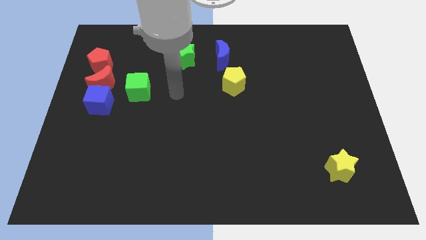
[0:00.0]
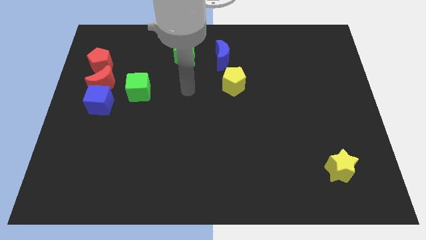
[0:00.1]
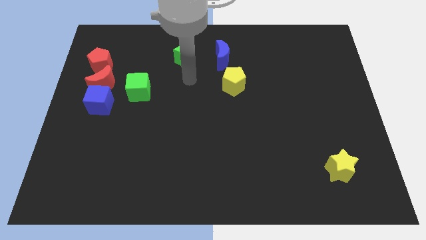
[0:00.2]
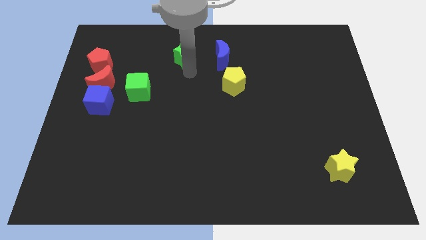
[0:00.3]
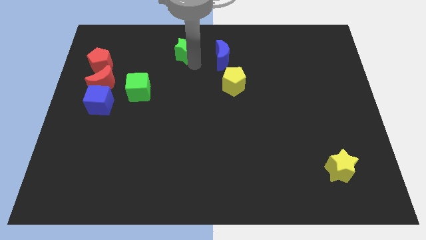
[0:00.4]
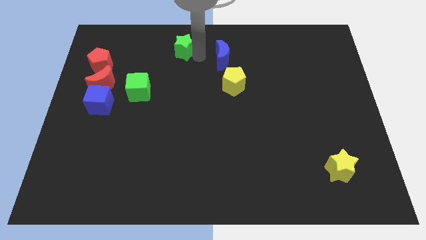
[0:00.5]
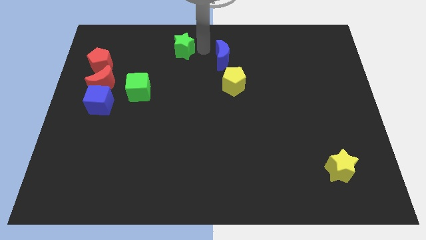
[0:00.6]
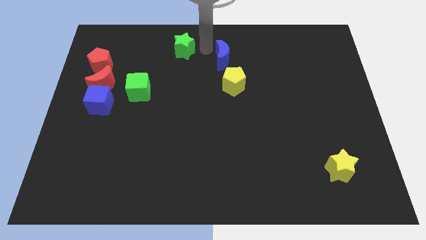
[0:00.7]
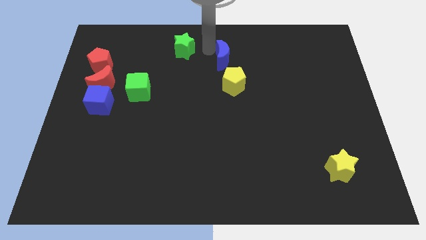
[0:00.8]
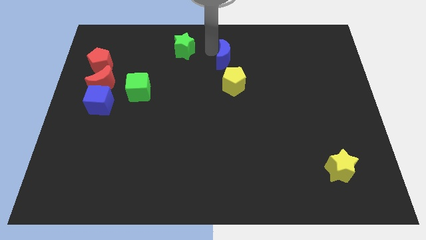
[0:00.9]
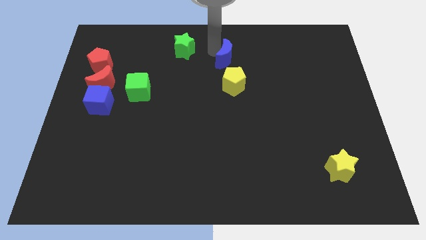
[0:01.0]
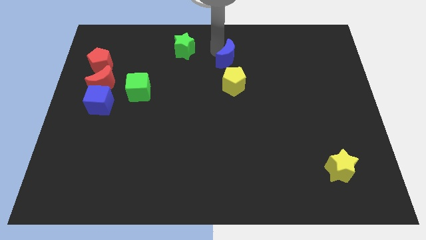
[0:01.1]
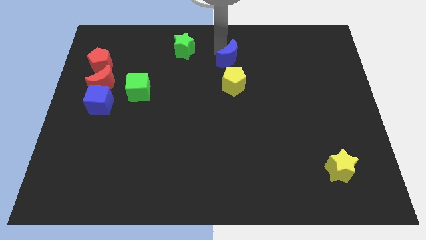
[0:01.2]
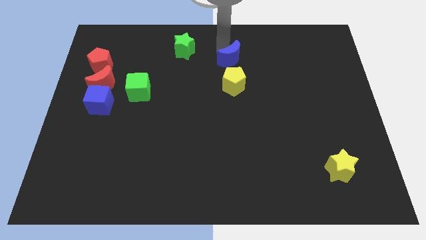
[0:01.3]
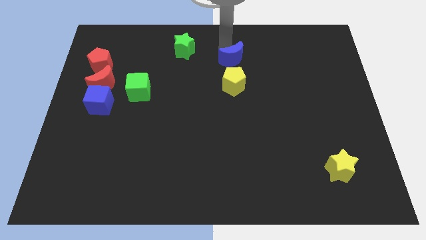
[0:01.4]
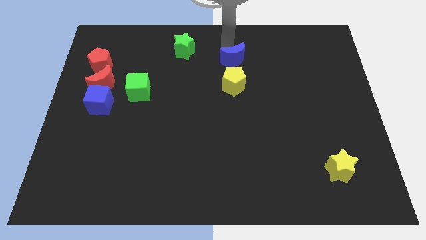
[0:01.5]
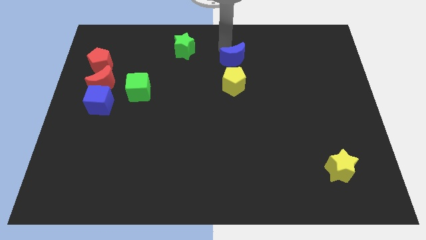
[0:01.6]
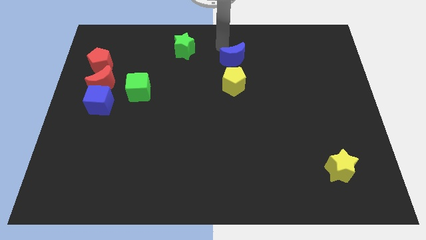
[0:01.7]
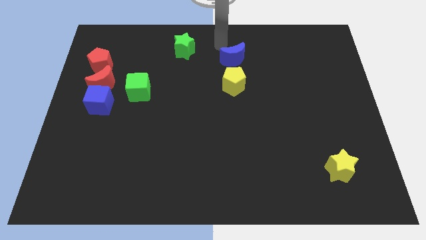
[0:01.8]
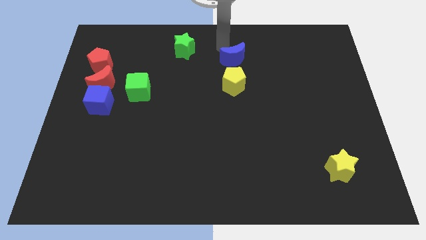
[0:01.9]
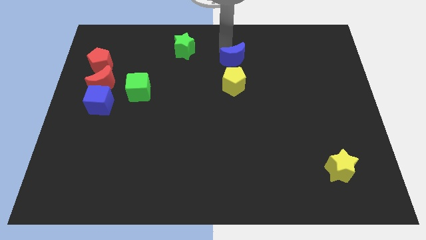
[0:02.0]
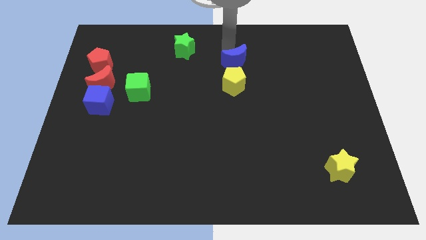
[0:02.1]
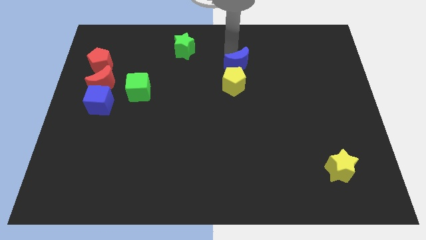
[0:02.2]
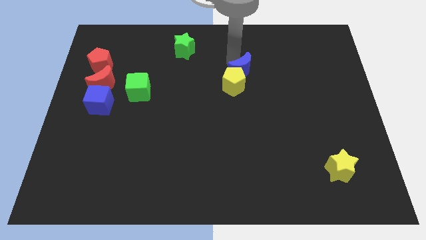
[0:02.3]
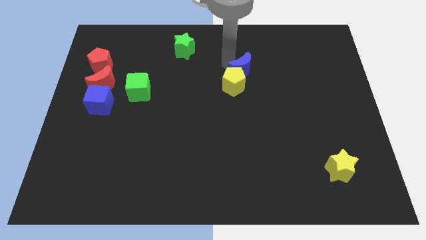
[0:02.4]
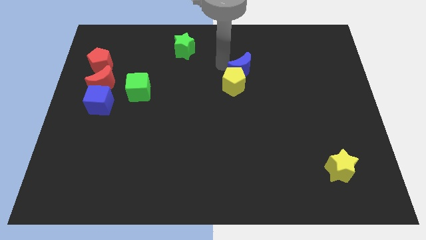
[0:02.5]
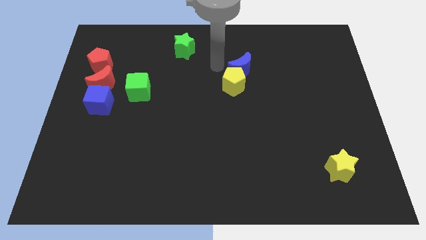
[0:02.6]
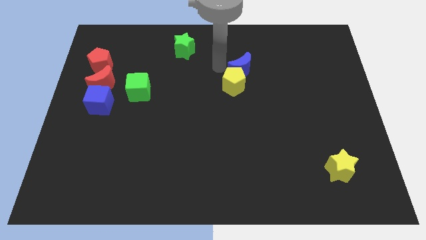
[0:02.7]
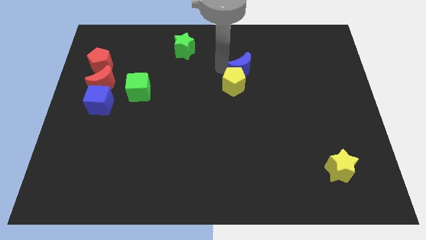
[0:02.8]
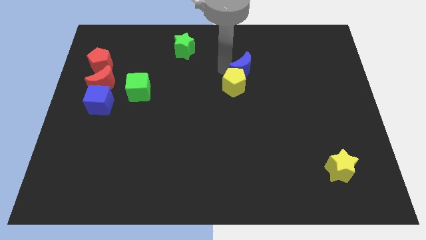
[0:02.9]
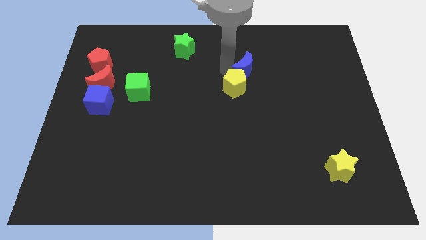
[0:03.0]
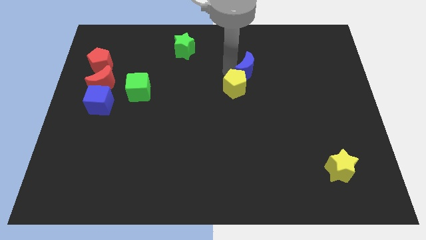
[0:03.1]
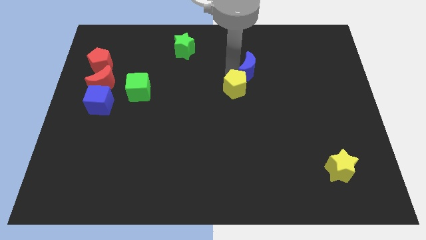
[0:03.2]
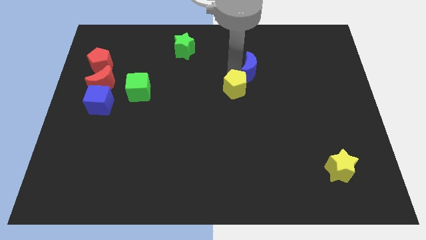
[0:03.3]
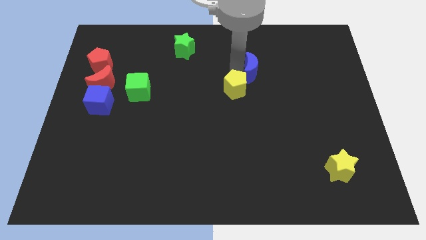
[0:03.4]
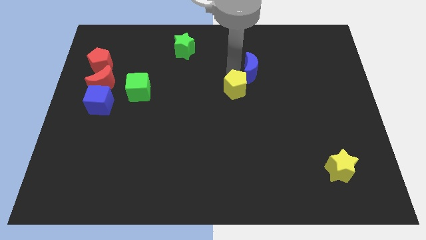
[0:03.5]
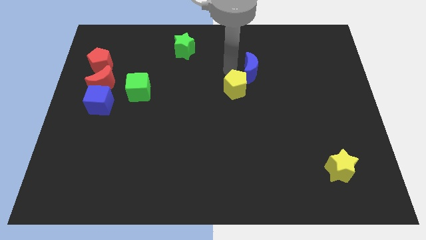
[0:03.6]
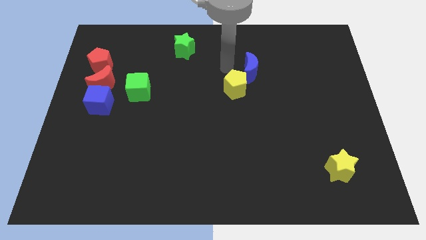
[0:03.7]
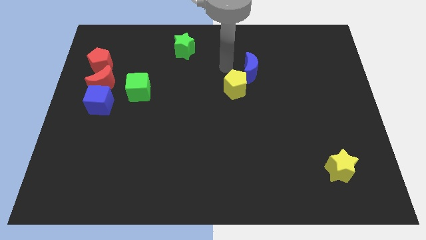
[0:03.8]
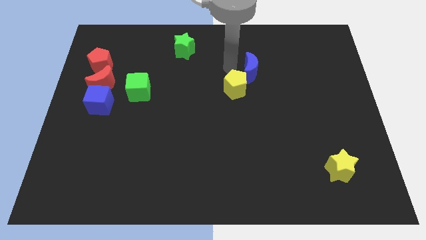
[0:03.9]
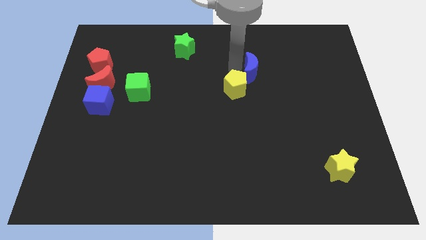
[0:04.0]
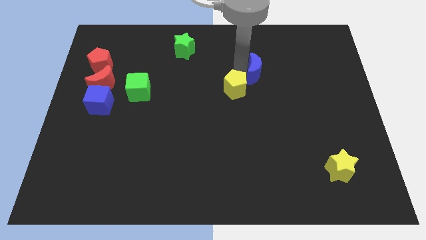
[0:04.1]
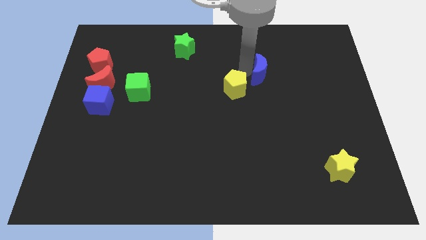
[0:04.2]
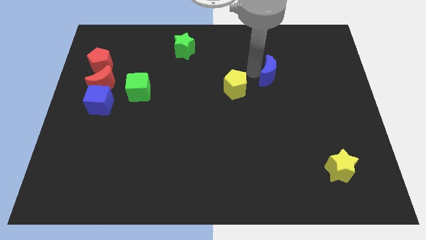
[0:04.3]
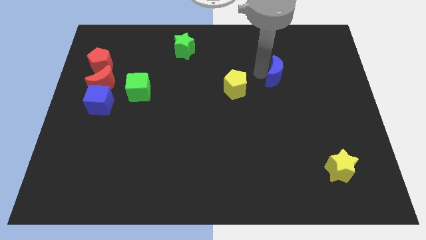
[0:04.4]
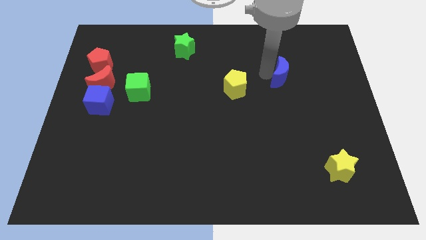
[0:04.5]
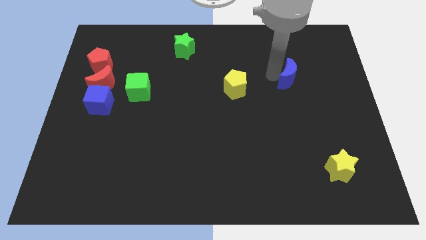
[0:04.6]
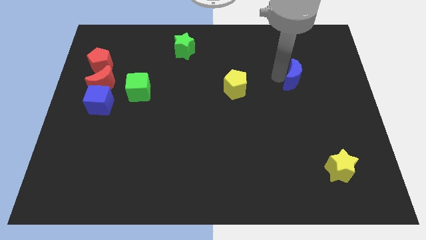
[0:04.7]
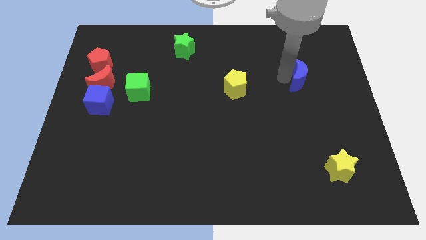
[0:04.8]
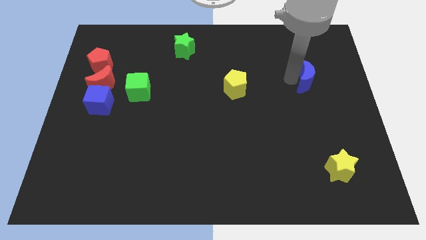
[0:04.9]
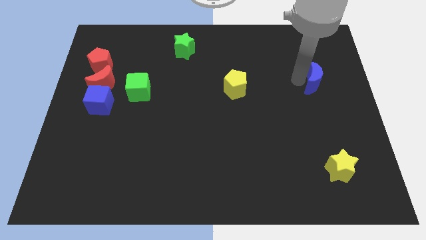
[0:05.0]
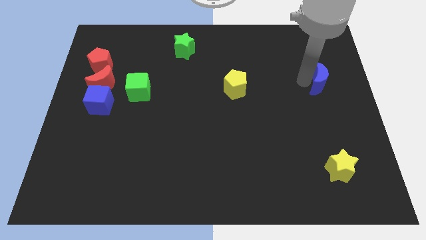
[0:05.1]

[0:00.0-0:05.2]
move the blue moon to the right side of the board

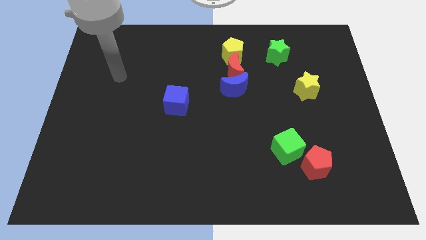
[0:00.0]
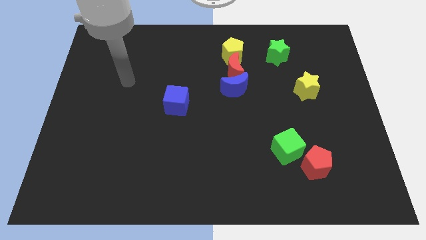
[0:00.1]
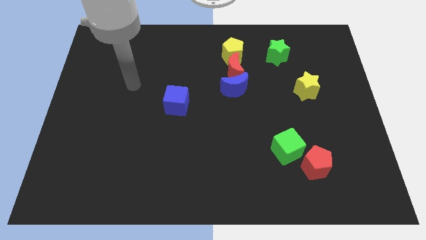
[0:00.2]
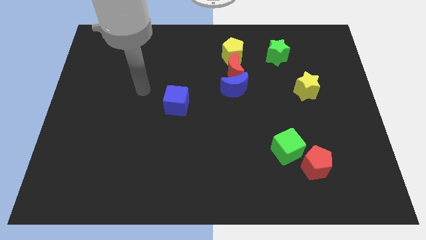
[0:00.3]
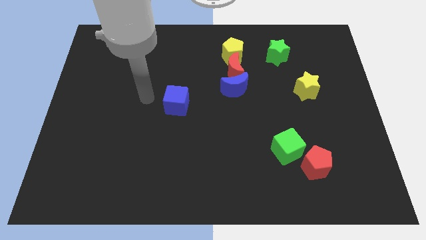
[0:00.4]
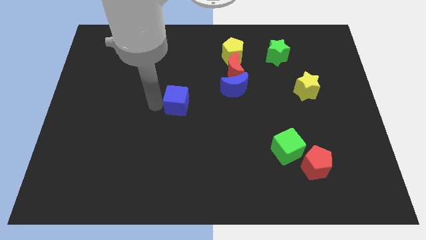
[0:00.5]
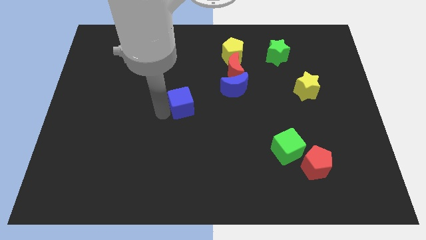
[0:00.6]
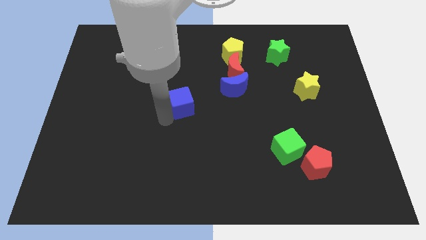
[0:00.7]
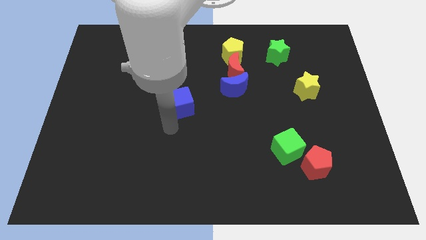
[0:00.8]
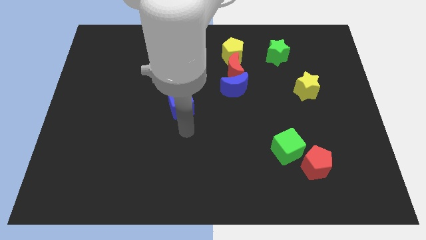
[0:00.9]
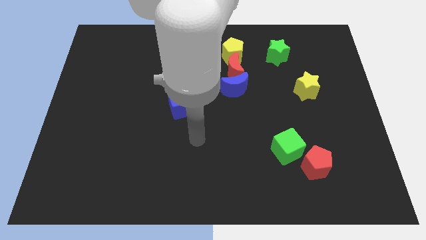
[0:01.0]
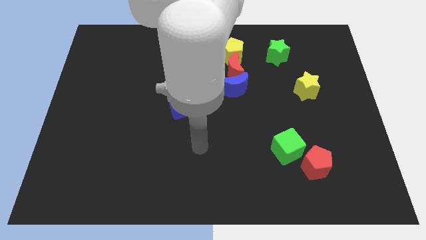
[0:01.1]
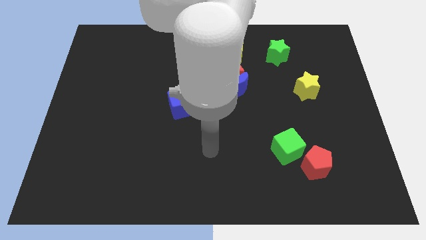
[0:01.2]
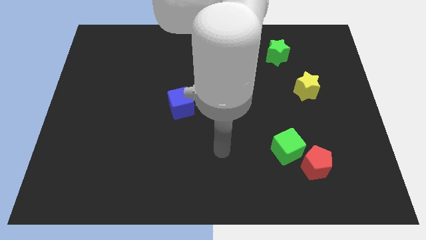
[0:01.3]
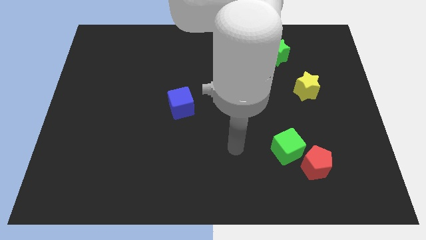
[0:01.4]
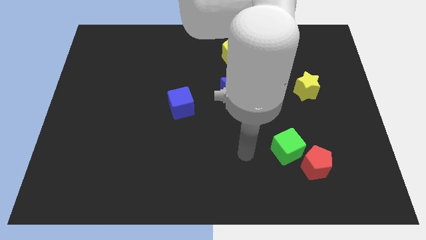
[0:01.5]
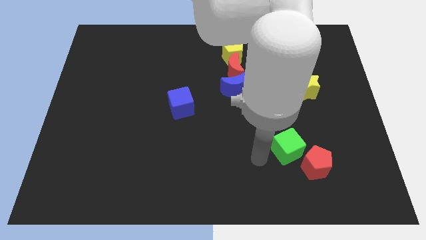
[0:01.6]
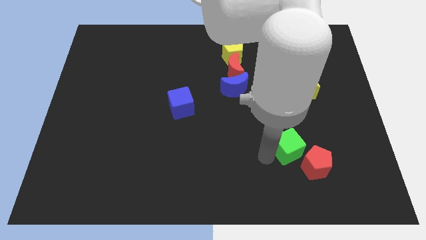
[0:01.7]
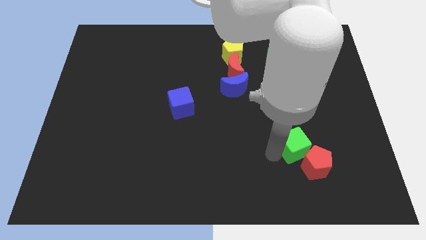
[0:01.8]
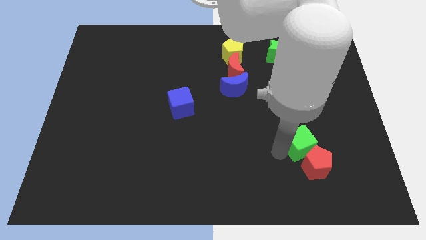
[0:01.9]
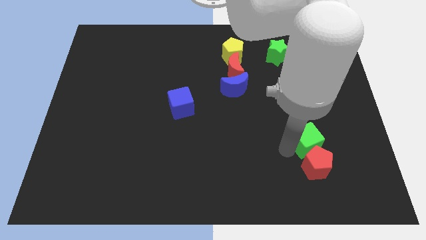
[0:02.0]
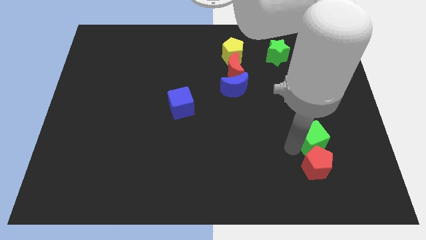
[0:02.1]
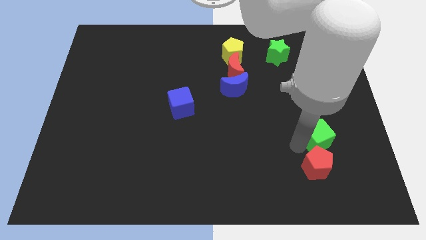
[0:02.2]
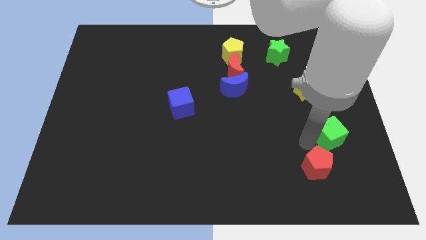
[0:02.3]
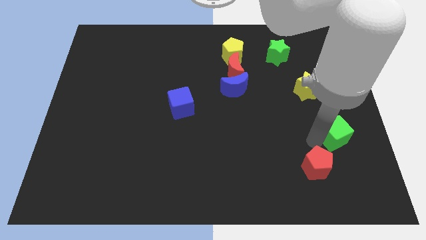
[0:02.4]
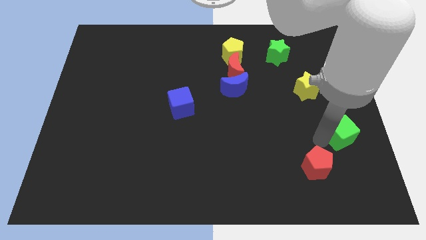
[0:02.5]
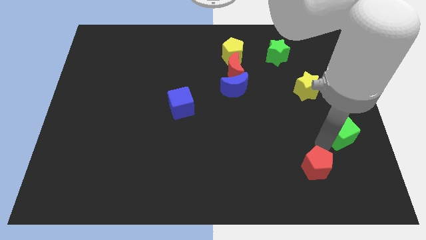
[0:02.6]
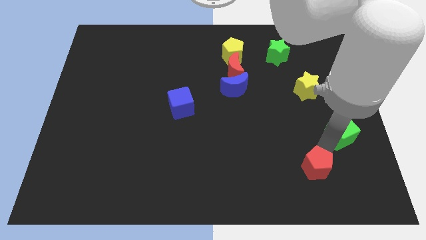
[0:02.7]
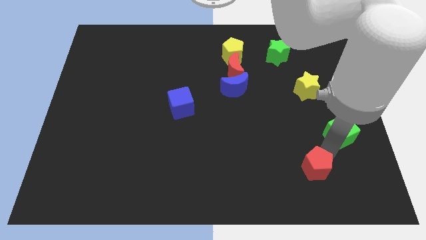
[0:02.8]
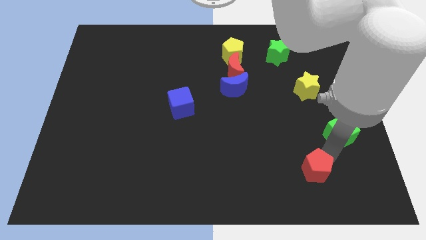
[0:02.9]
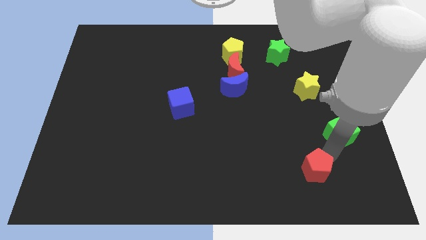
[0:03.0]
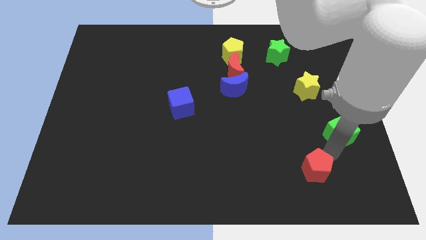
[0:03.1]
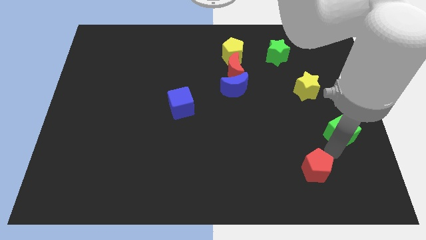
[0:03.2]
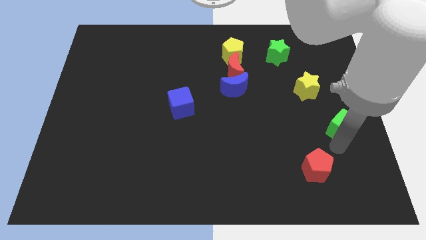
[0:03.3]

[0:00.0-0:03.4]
slide the green cube to the center right
